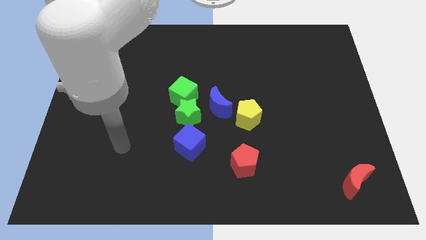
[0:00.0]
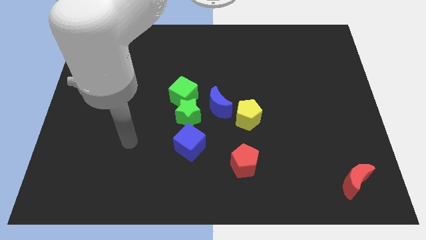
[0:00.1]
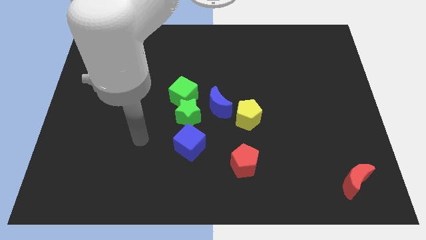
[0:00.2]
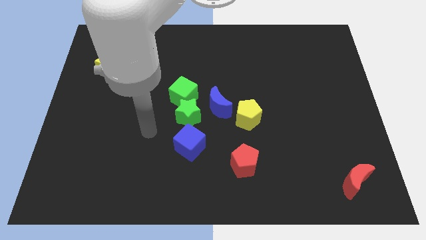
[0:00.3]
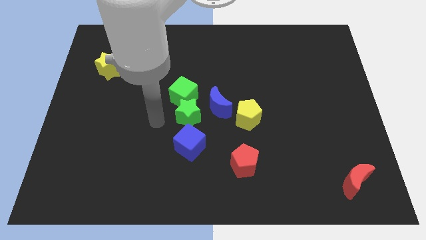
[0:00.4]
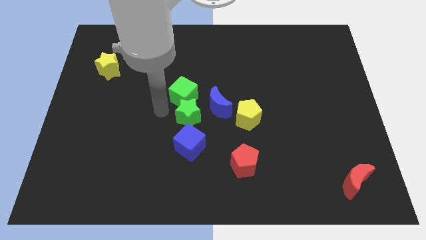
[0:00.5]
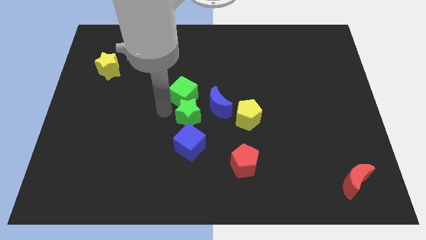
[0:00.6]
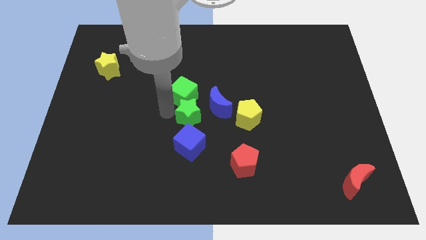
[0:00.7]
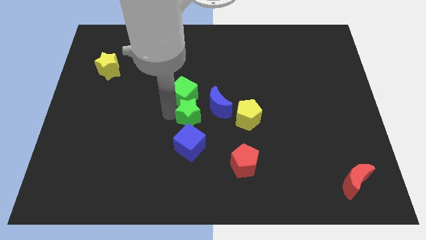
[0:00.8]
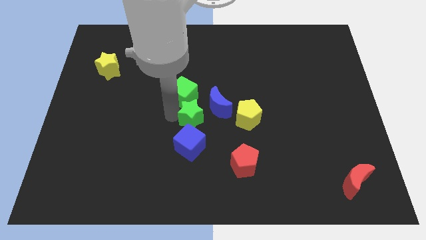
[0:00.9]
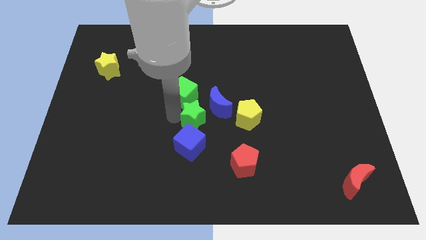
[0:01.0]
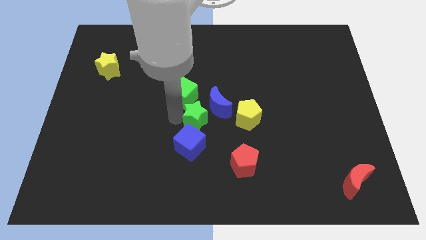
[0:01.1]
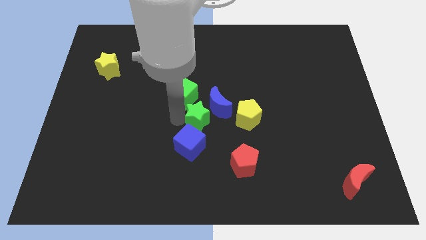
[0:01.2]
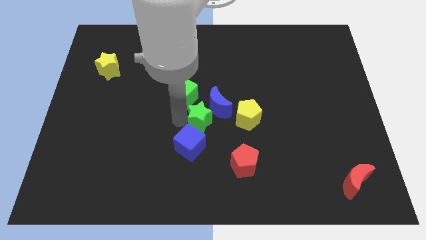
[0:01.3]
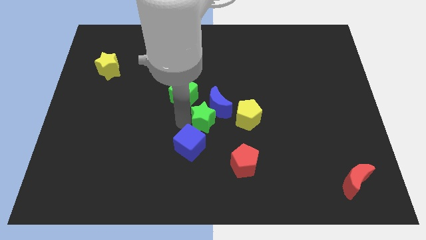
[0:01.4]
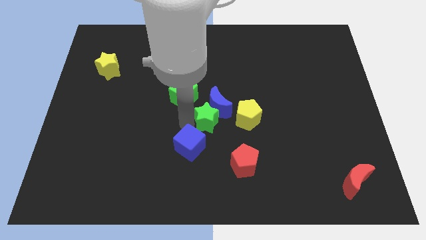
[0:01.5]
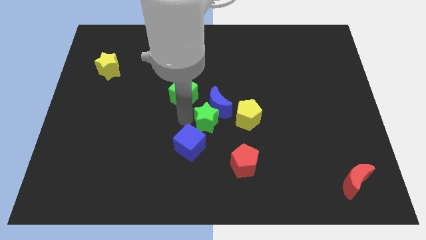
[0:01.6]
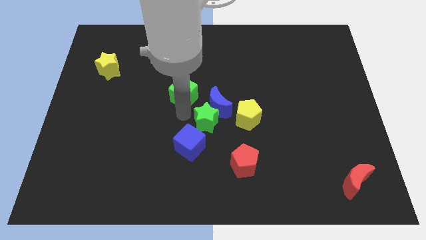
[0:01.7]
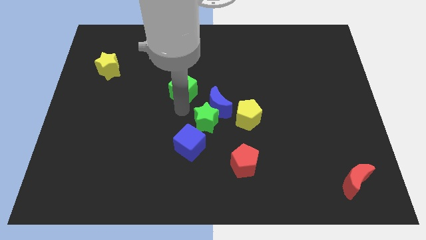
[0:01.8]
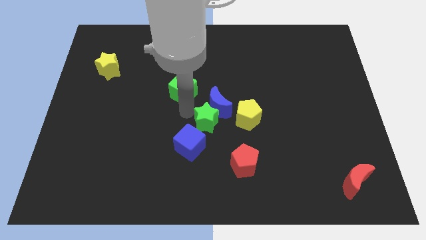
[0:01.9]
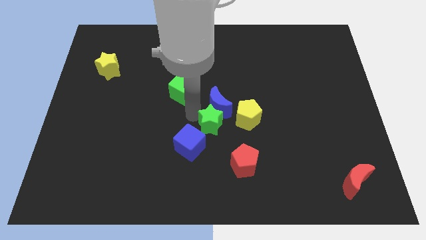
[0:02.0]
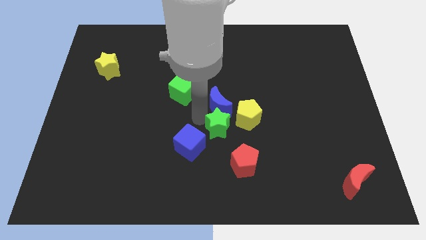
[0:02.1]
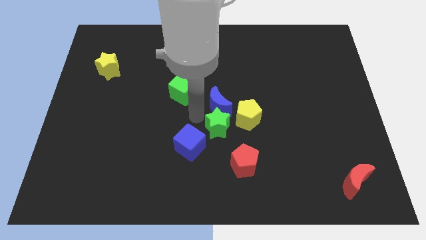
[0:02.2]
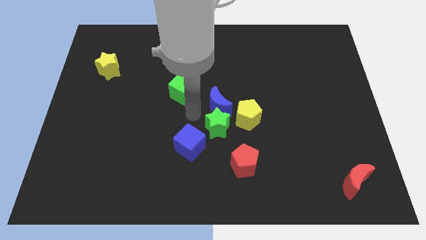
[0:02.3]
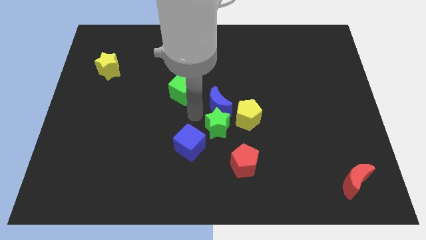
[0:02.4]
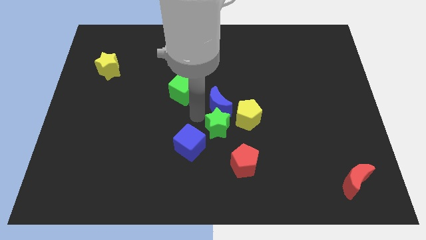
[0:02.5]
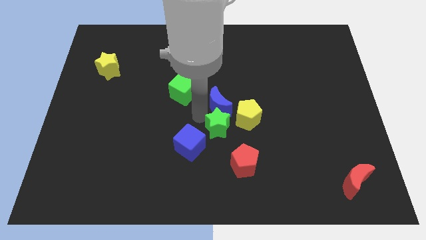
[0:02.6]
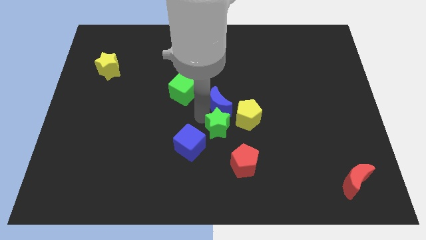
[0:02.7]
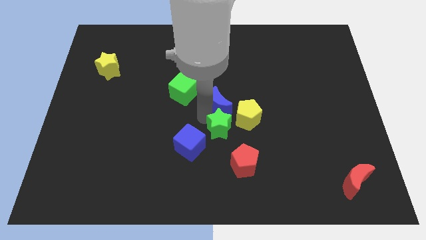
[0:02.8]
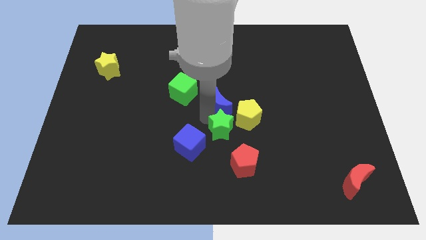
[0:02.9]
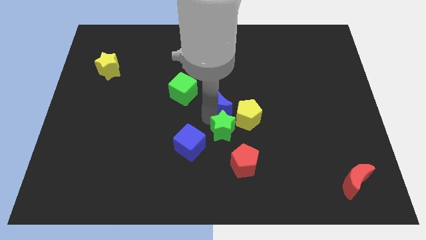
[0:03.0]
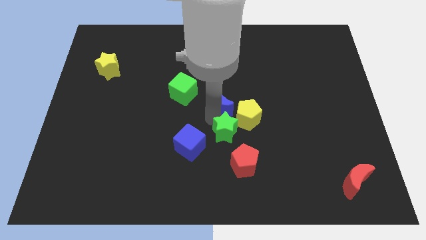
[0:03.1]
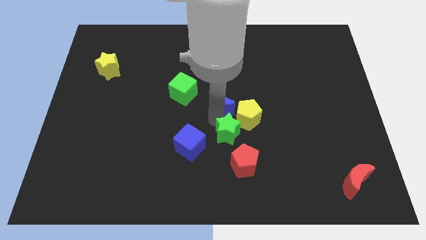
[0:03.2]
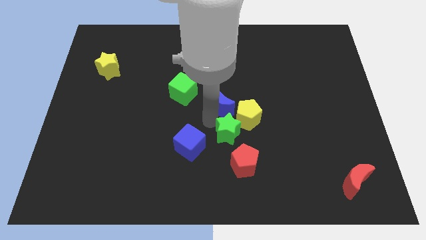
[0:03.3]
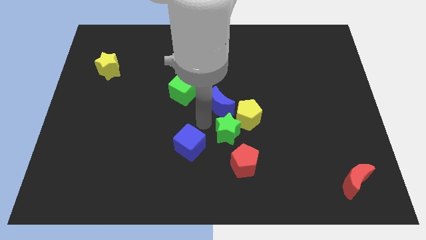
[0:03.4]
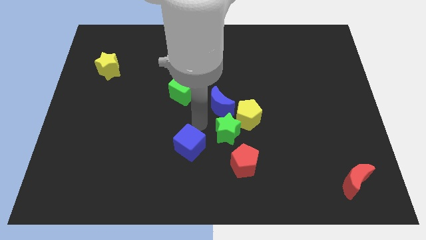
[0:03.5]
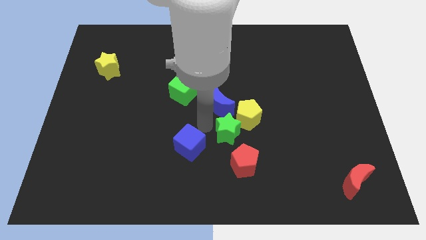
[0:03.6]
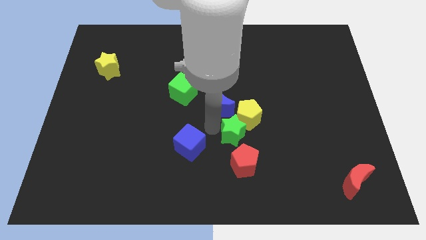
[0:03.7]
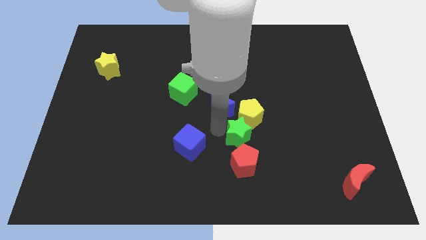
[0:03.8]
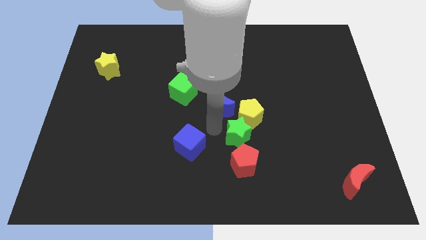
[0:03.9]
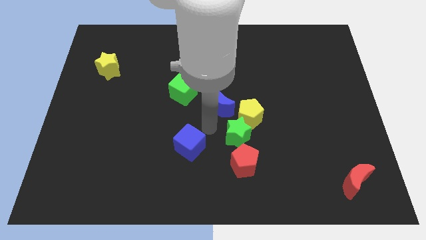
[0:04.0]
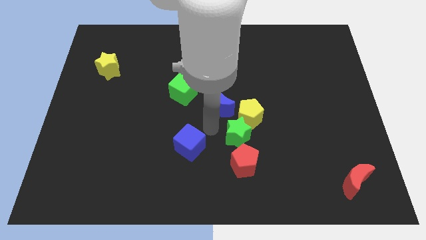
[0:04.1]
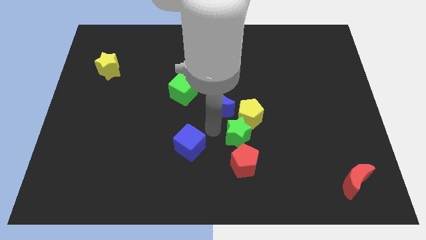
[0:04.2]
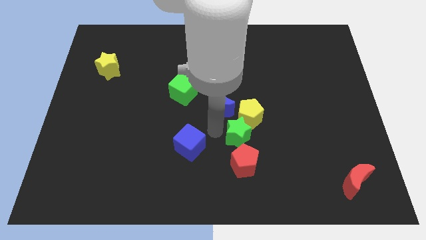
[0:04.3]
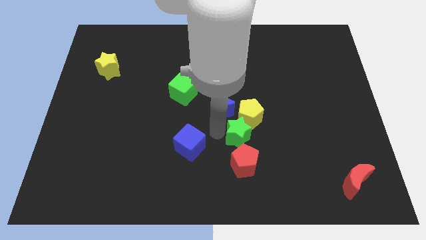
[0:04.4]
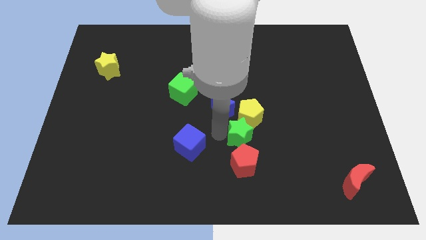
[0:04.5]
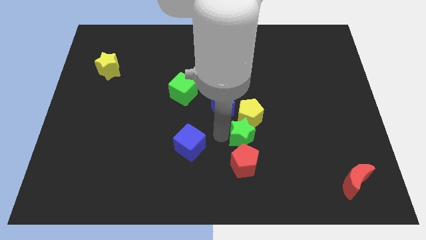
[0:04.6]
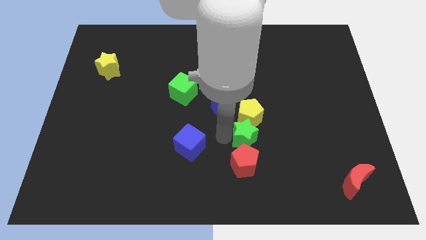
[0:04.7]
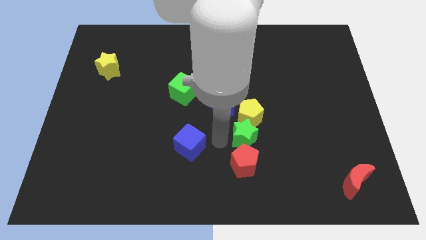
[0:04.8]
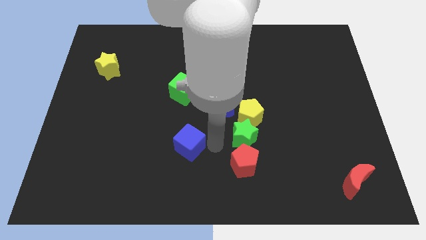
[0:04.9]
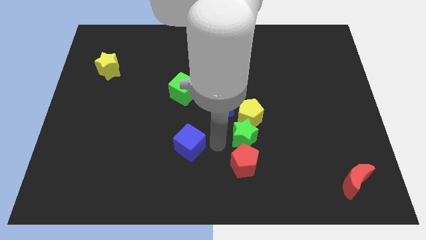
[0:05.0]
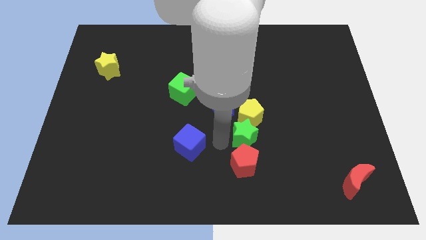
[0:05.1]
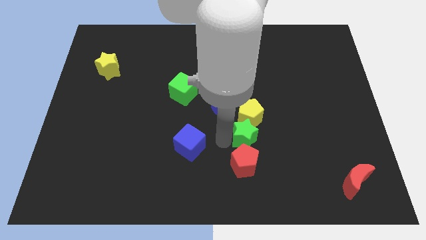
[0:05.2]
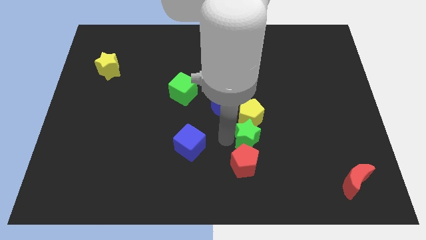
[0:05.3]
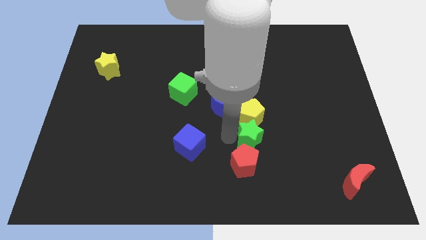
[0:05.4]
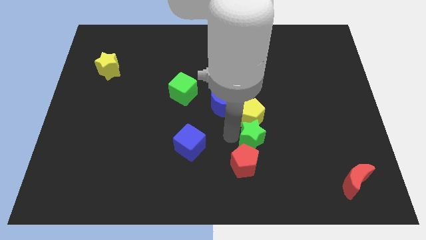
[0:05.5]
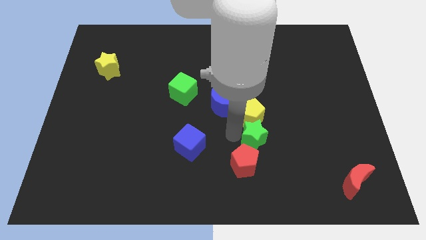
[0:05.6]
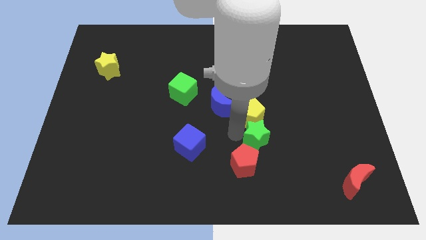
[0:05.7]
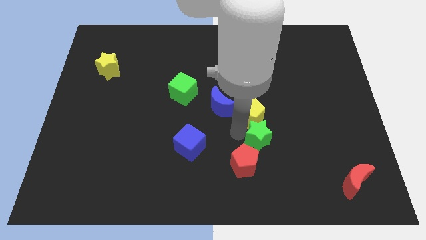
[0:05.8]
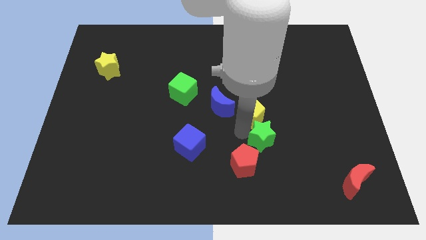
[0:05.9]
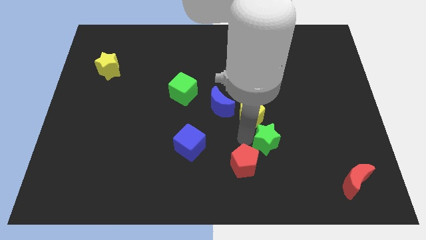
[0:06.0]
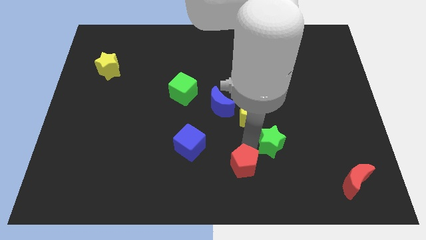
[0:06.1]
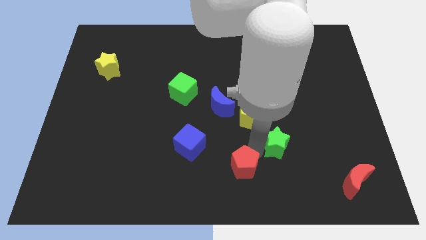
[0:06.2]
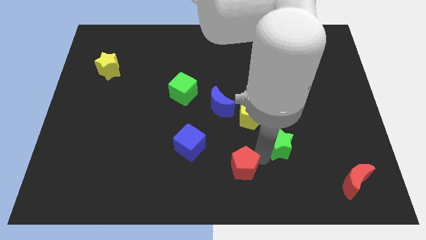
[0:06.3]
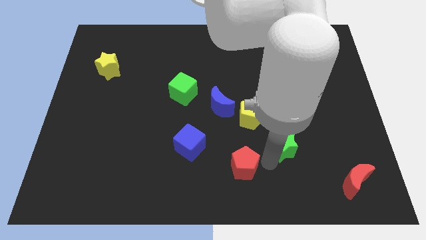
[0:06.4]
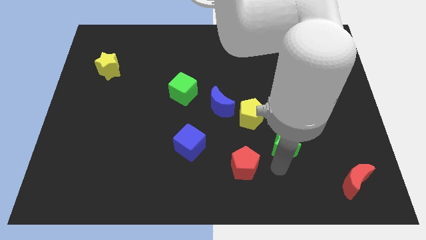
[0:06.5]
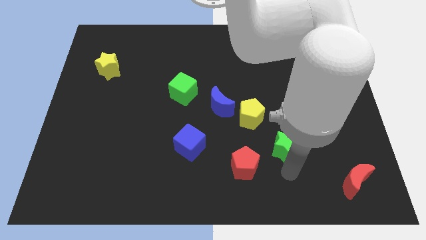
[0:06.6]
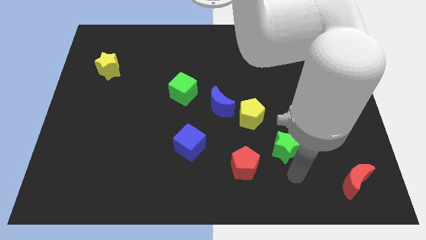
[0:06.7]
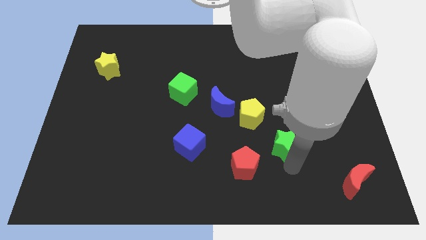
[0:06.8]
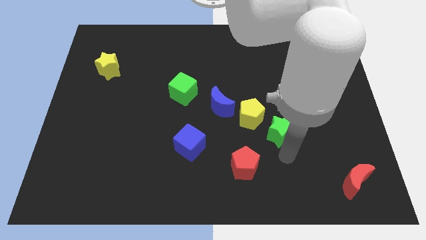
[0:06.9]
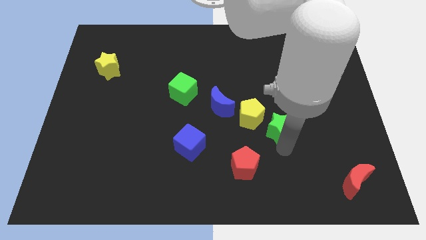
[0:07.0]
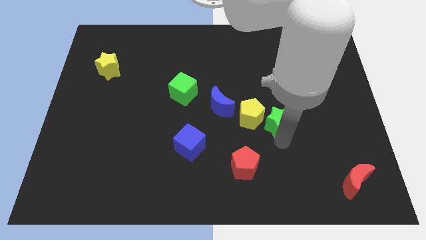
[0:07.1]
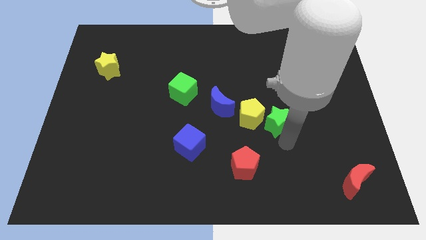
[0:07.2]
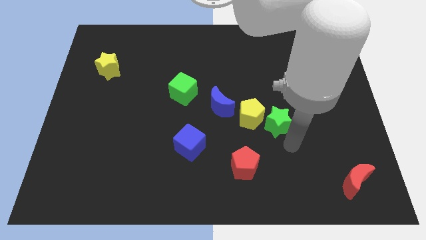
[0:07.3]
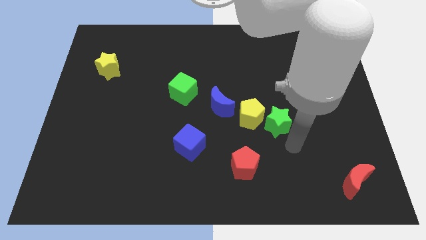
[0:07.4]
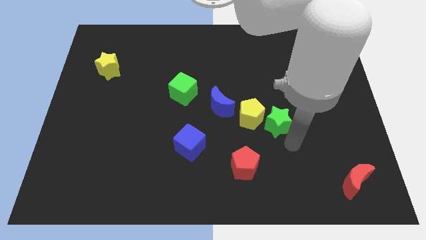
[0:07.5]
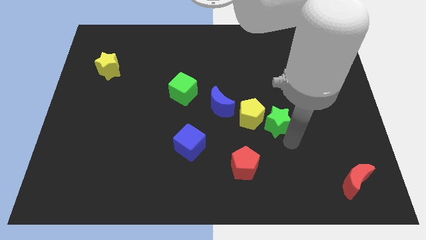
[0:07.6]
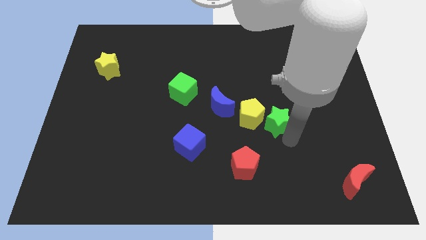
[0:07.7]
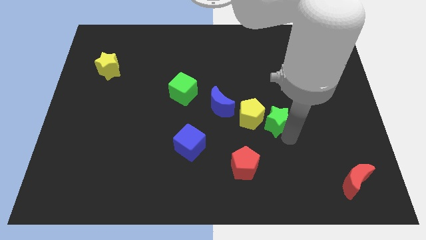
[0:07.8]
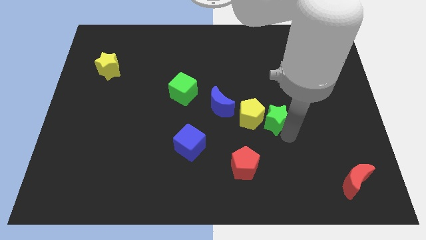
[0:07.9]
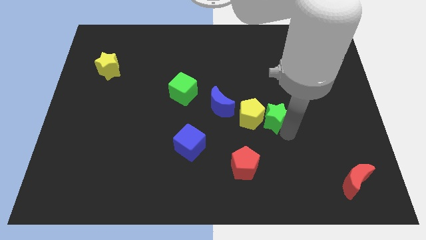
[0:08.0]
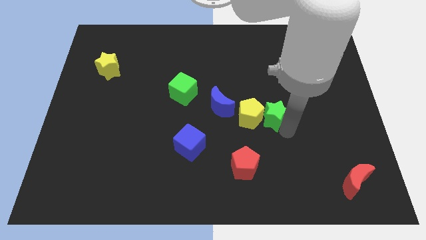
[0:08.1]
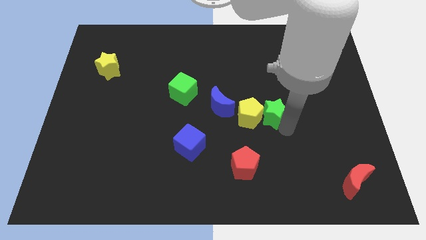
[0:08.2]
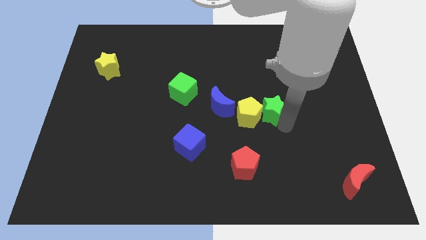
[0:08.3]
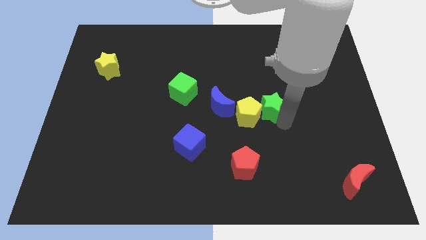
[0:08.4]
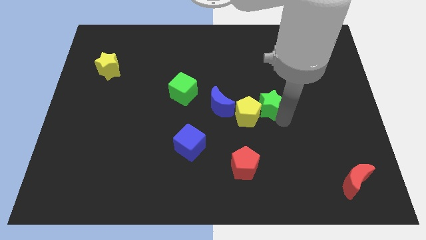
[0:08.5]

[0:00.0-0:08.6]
push the green star upwards and then to the right a bit
